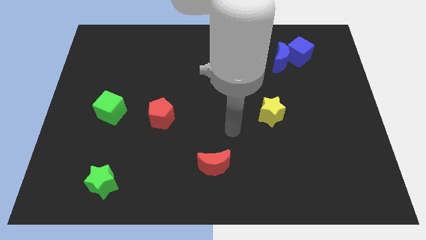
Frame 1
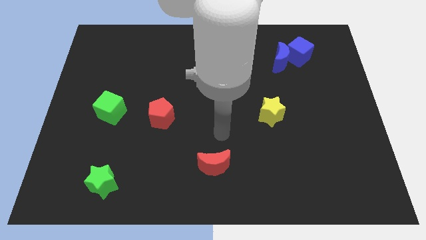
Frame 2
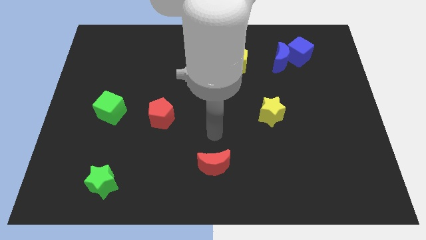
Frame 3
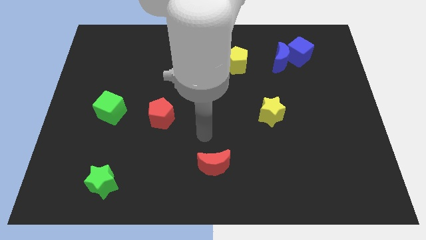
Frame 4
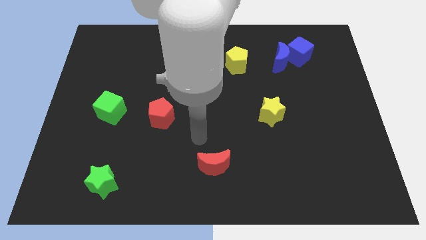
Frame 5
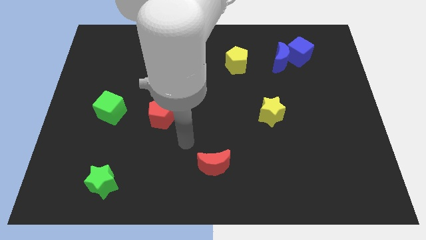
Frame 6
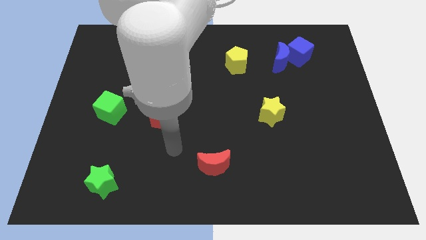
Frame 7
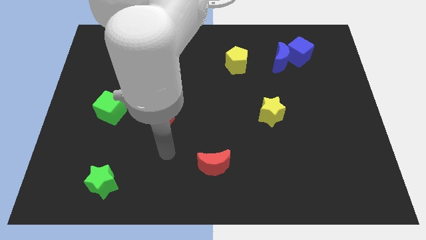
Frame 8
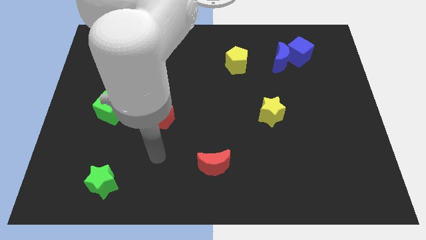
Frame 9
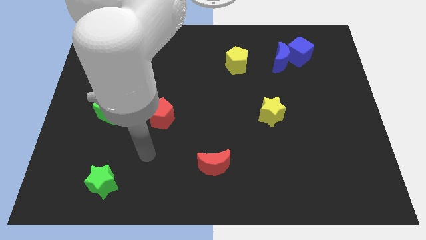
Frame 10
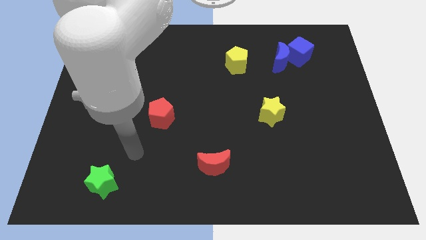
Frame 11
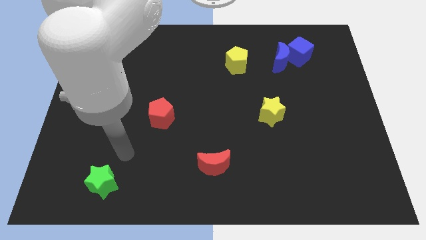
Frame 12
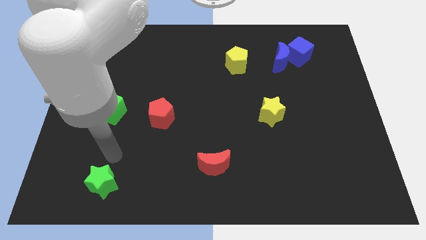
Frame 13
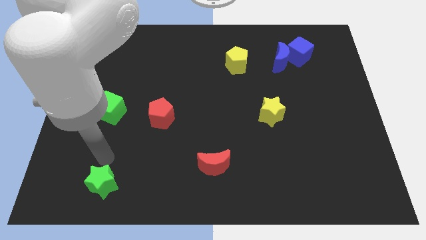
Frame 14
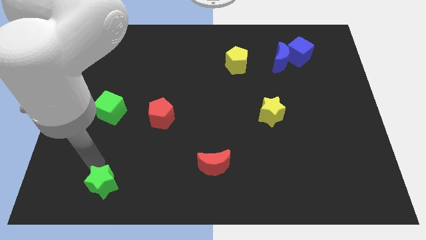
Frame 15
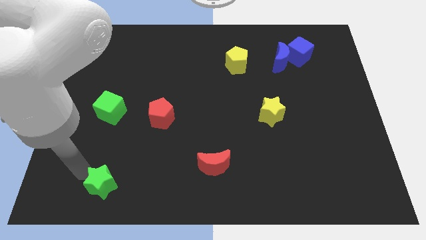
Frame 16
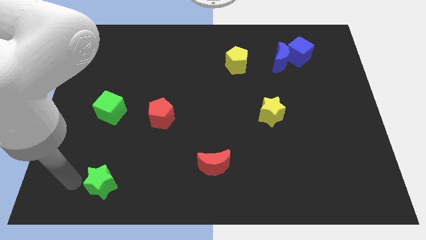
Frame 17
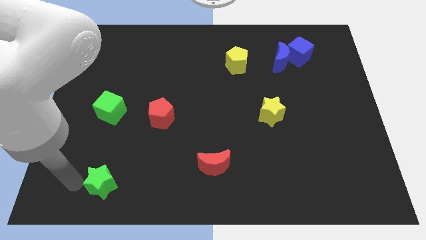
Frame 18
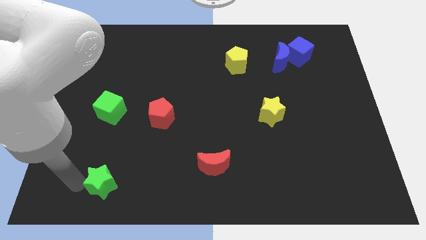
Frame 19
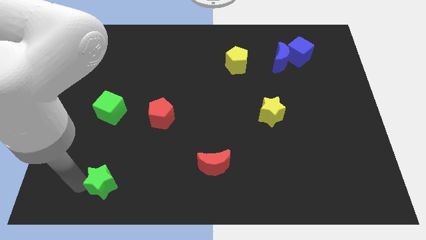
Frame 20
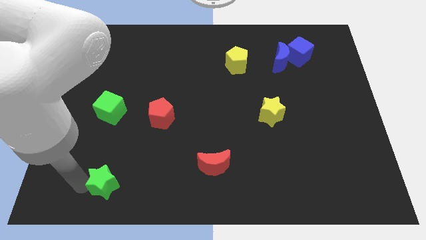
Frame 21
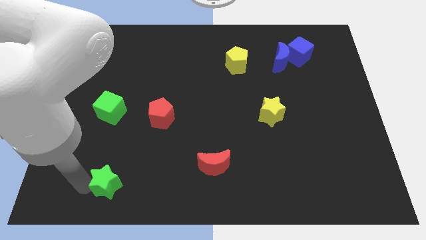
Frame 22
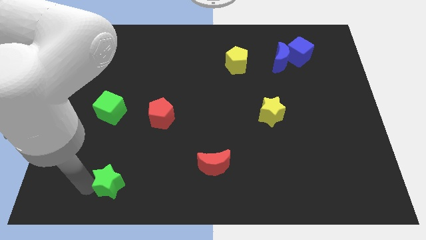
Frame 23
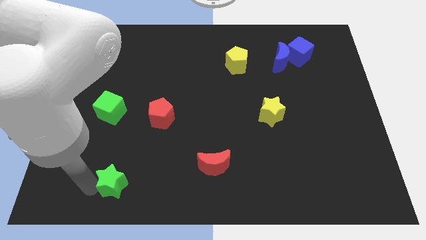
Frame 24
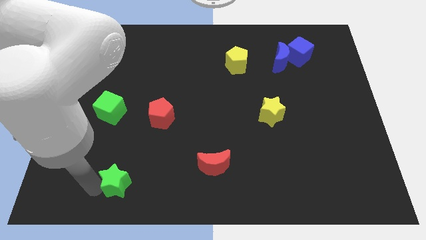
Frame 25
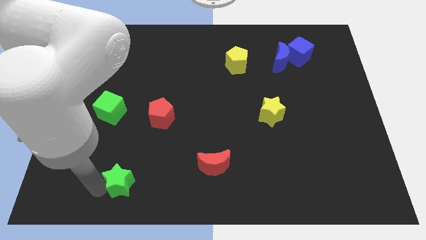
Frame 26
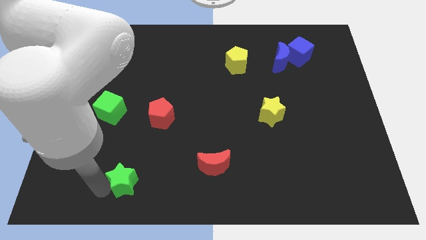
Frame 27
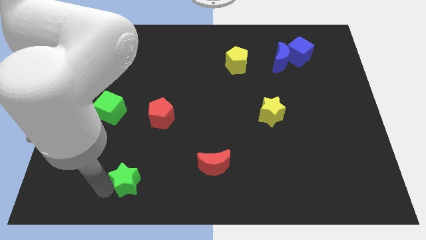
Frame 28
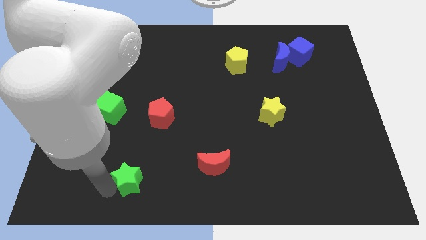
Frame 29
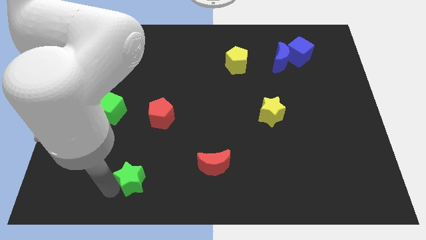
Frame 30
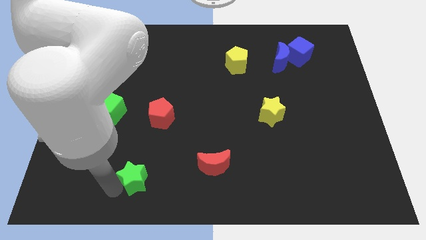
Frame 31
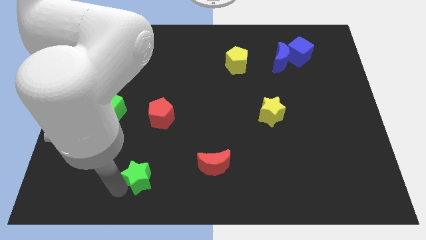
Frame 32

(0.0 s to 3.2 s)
push the green star a bit to the right

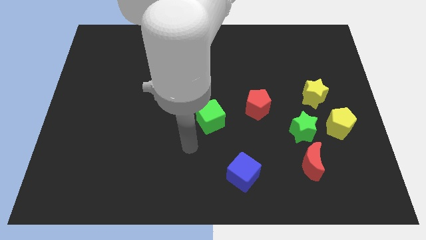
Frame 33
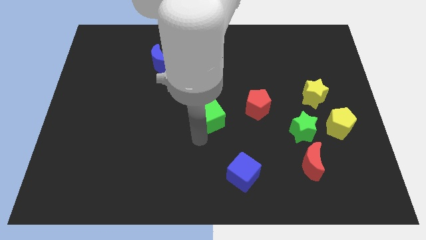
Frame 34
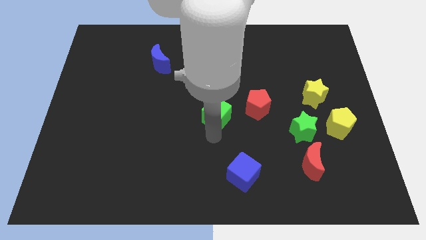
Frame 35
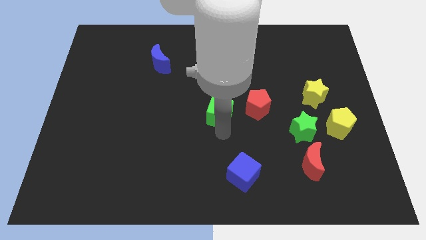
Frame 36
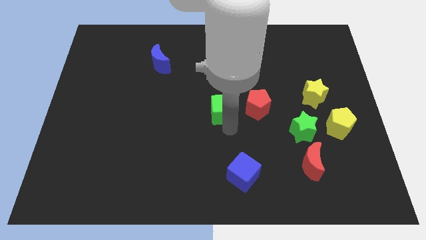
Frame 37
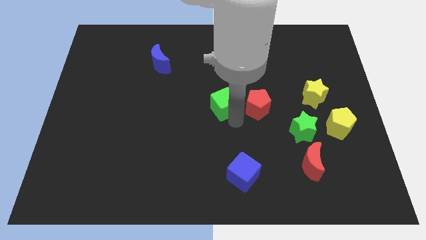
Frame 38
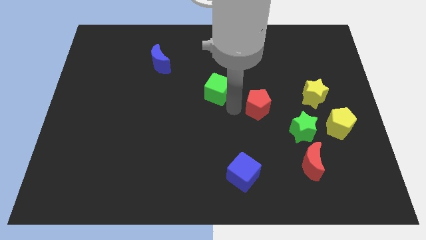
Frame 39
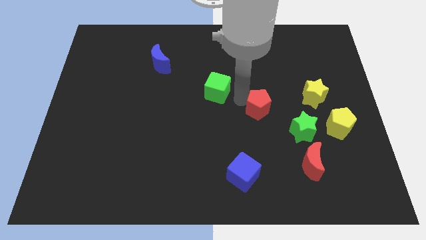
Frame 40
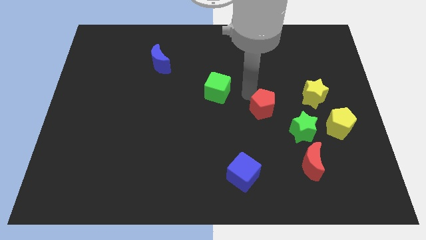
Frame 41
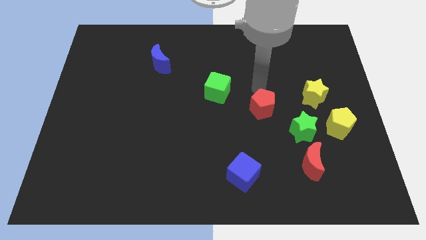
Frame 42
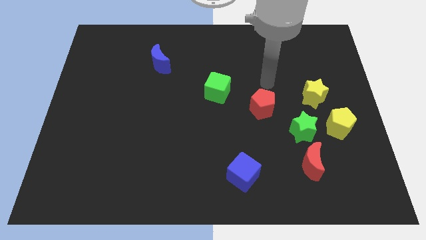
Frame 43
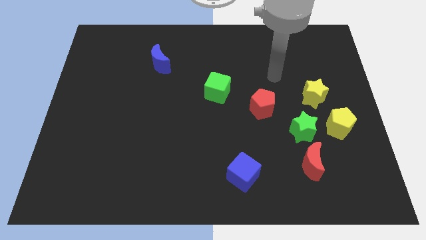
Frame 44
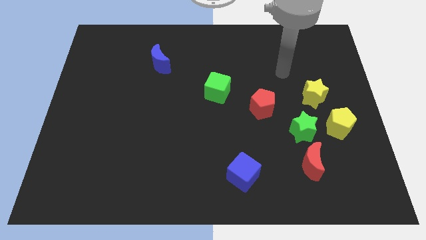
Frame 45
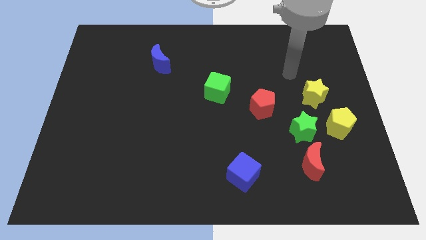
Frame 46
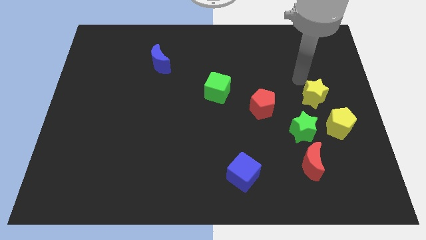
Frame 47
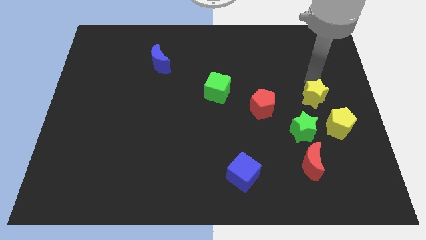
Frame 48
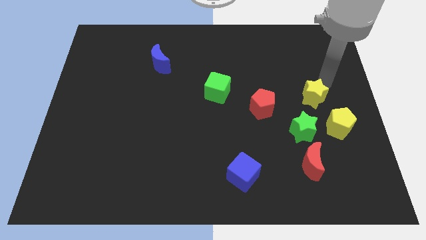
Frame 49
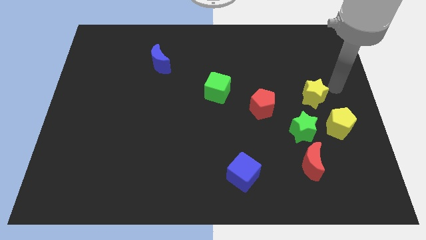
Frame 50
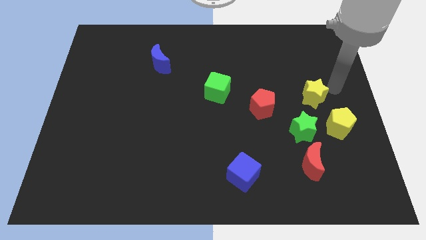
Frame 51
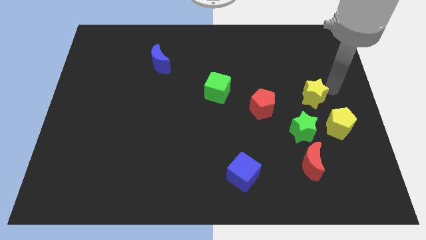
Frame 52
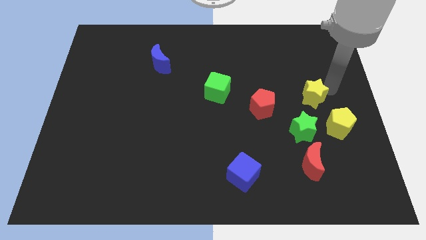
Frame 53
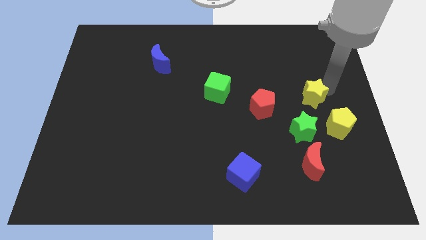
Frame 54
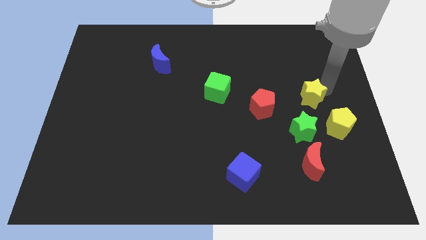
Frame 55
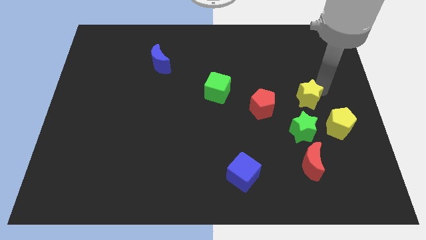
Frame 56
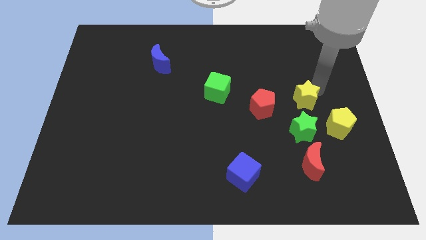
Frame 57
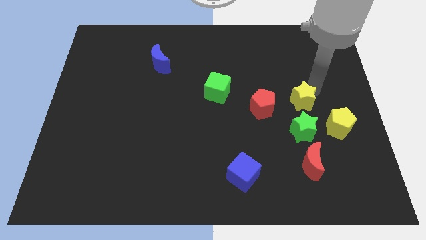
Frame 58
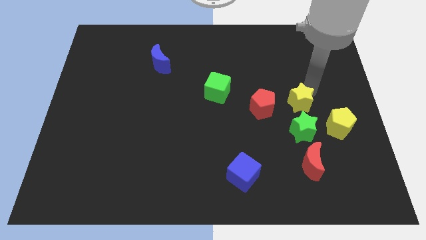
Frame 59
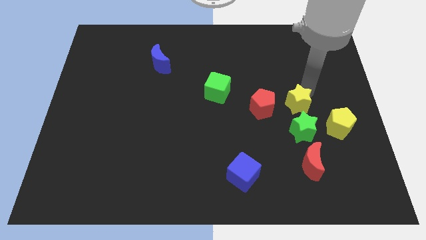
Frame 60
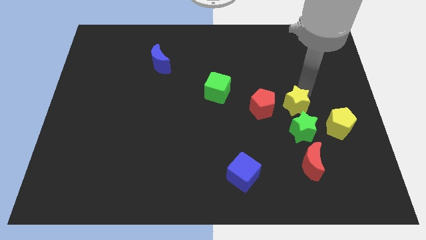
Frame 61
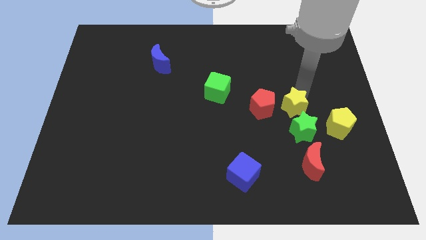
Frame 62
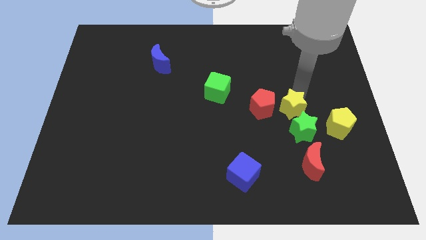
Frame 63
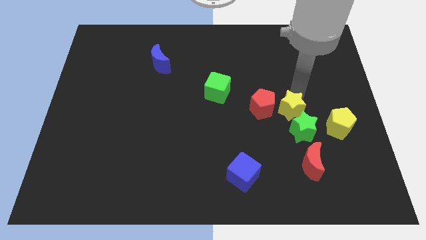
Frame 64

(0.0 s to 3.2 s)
slide the yellow star diagonally down and left a bit

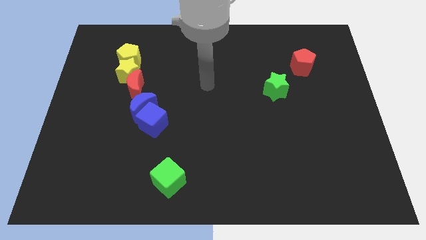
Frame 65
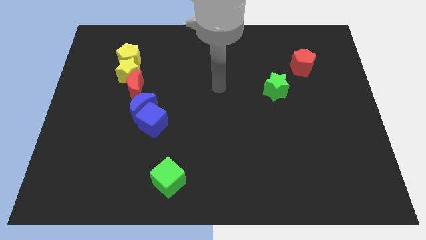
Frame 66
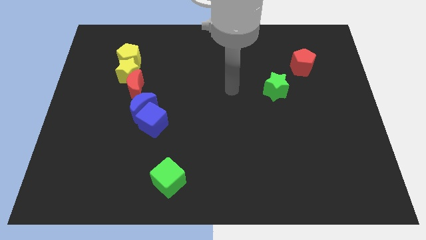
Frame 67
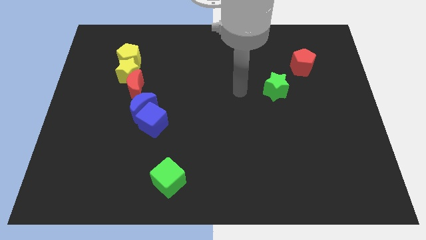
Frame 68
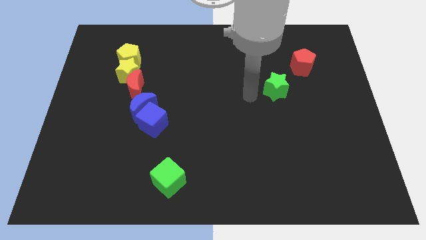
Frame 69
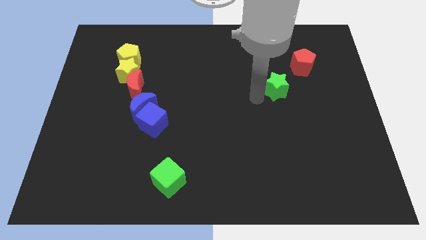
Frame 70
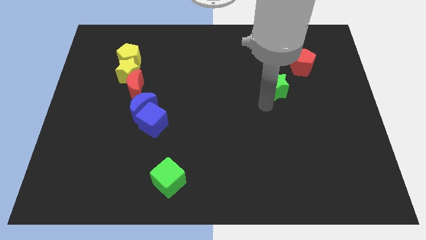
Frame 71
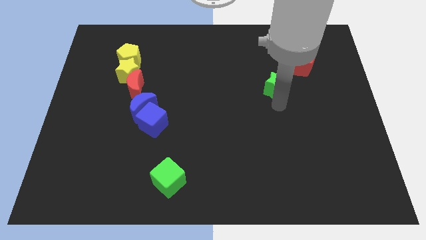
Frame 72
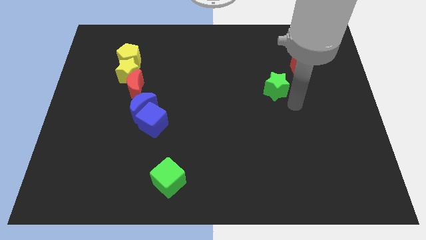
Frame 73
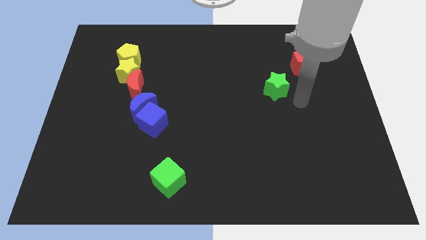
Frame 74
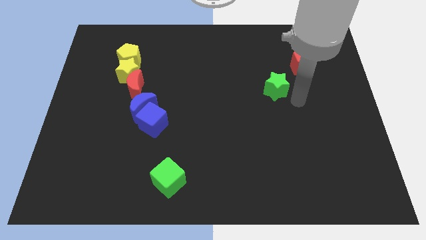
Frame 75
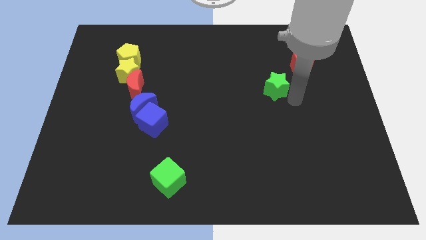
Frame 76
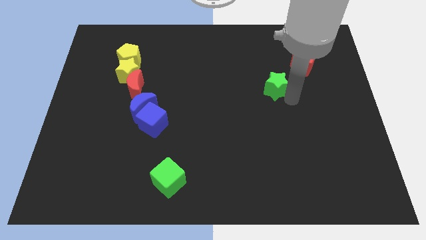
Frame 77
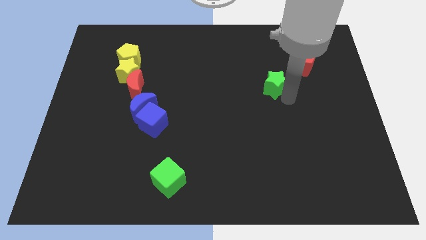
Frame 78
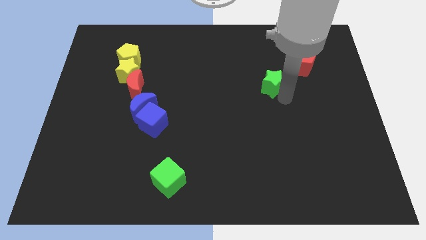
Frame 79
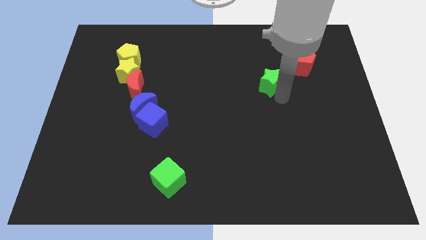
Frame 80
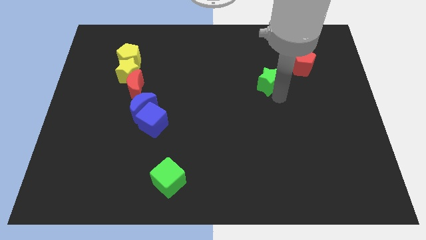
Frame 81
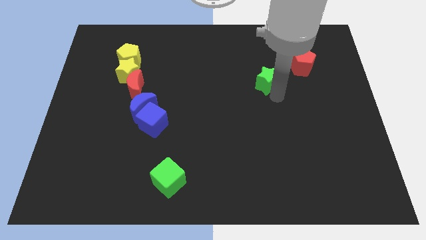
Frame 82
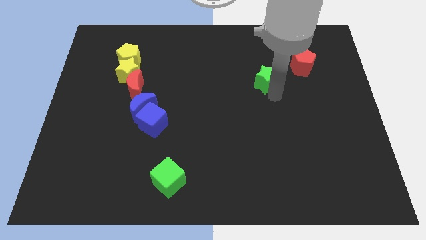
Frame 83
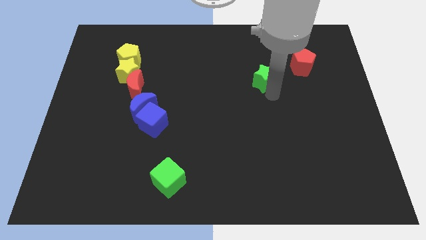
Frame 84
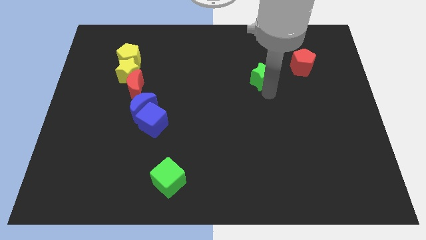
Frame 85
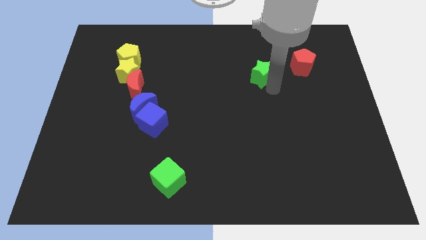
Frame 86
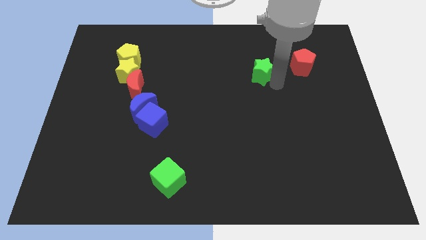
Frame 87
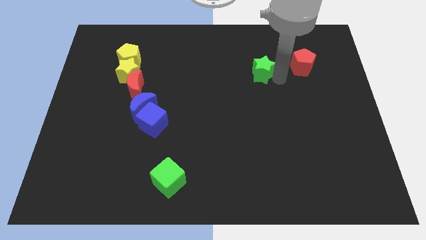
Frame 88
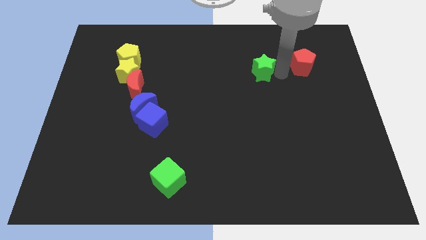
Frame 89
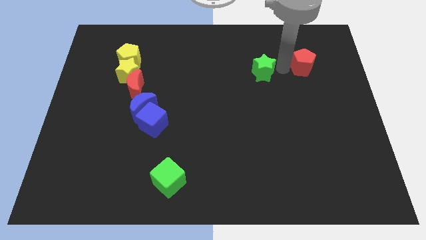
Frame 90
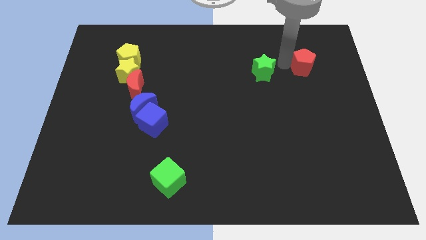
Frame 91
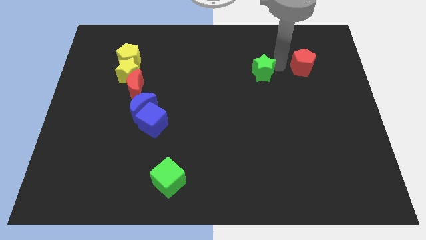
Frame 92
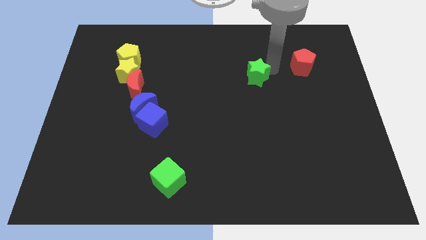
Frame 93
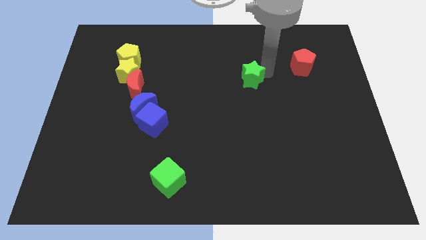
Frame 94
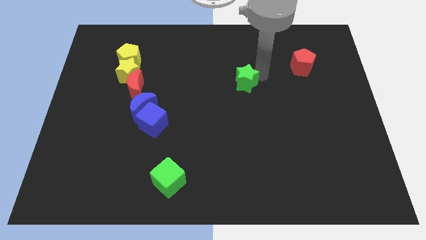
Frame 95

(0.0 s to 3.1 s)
move the green star slightly left
